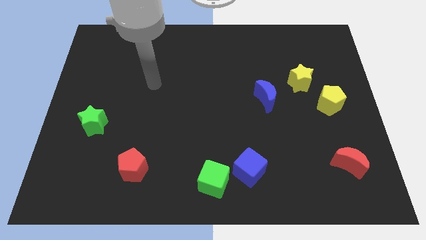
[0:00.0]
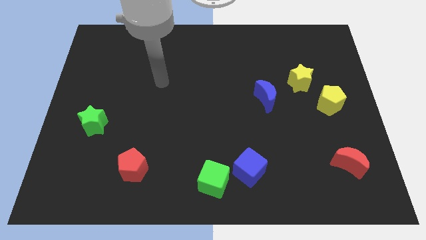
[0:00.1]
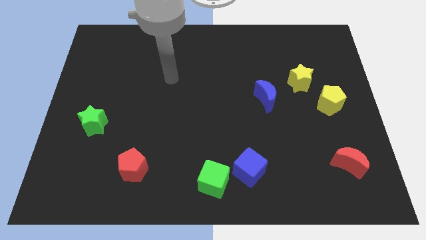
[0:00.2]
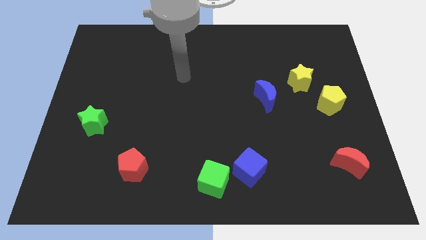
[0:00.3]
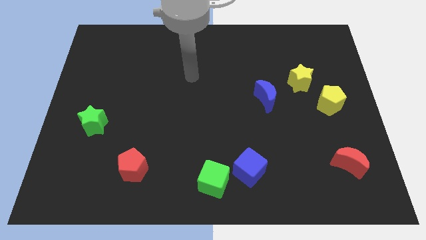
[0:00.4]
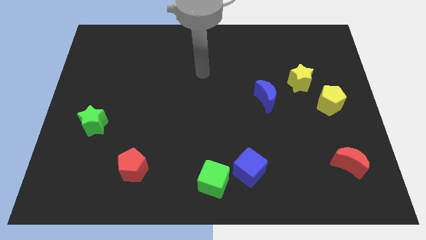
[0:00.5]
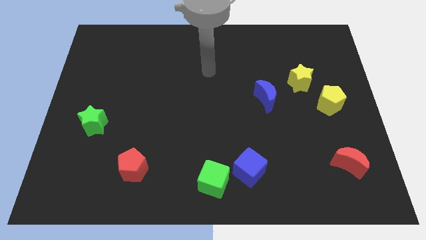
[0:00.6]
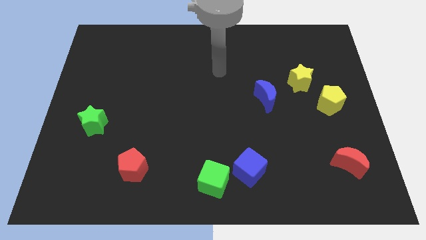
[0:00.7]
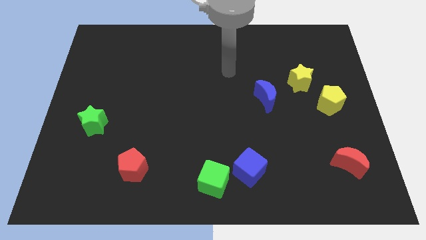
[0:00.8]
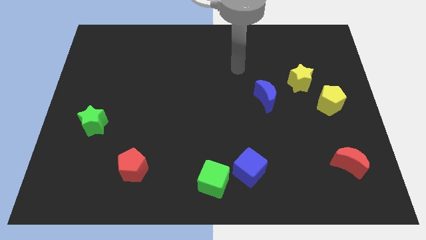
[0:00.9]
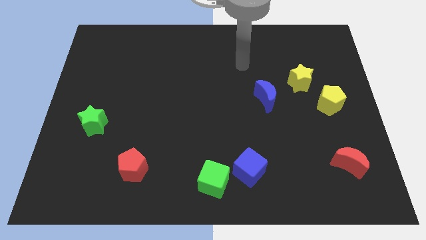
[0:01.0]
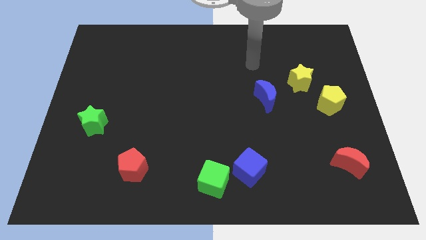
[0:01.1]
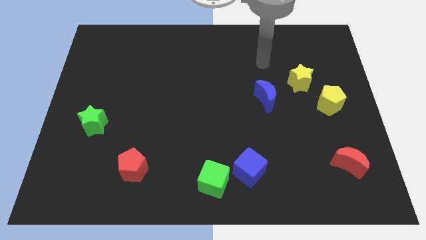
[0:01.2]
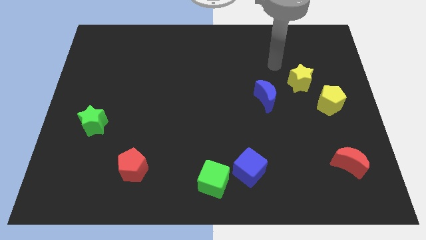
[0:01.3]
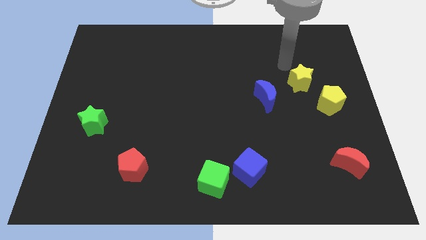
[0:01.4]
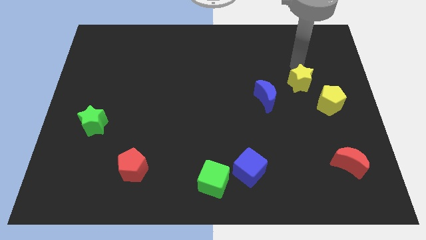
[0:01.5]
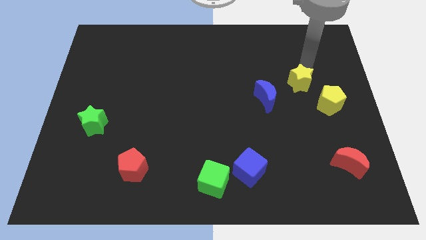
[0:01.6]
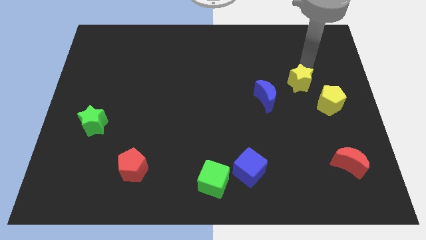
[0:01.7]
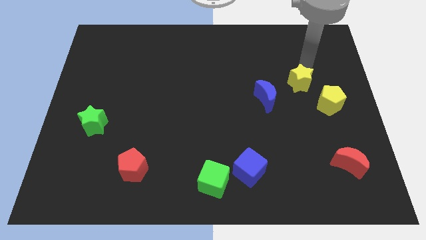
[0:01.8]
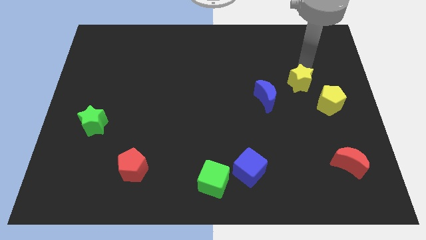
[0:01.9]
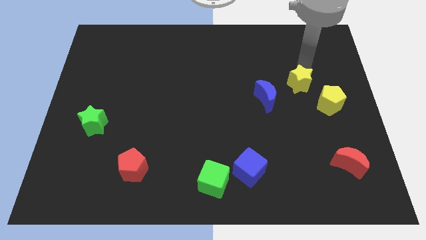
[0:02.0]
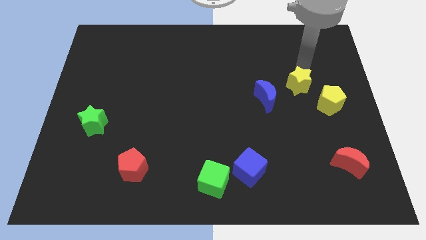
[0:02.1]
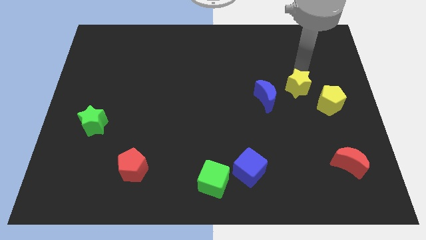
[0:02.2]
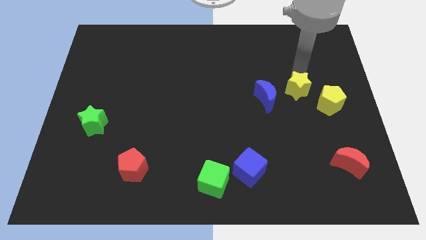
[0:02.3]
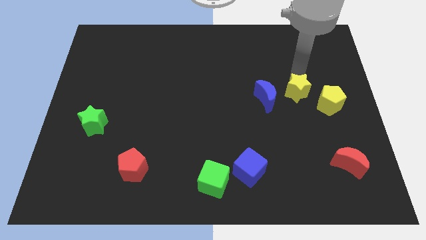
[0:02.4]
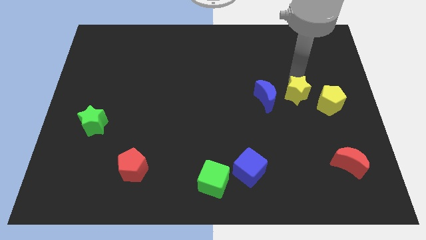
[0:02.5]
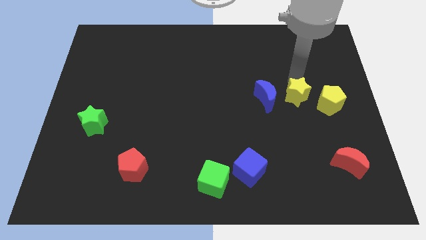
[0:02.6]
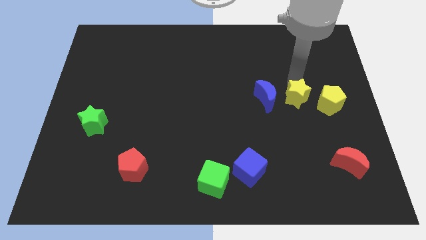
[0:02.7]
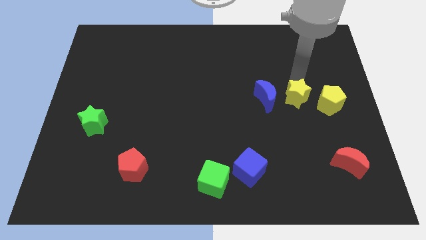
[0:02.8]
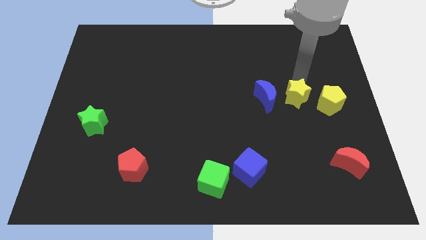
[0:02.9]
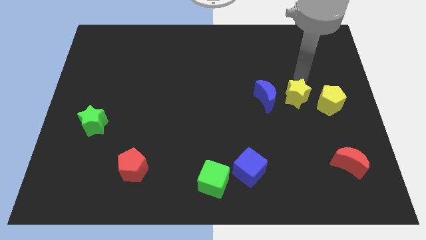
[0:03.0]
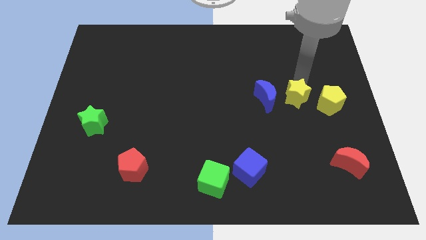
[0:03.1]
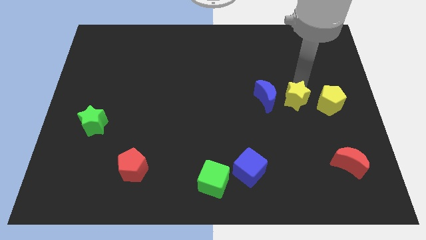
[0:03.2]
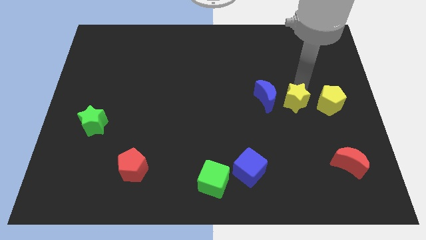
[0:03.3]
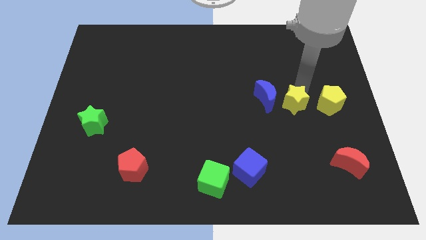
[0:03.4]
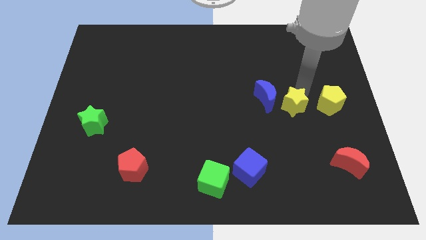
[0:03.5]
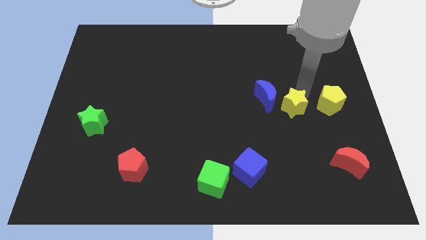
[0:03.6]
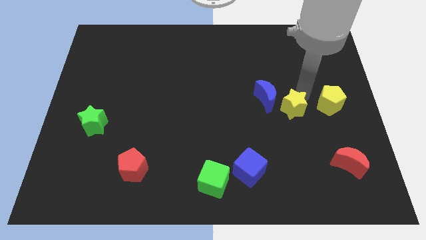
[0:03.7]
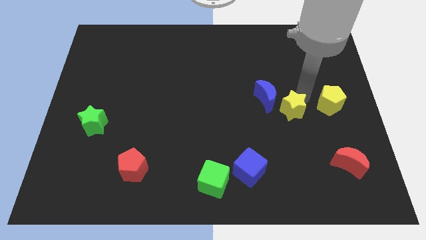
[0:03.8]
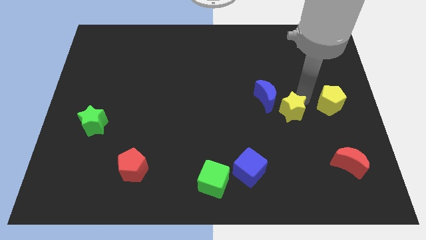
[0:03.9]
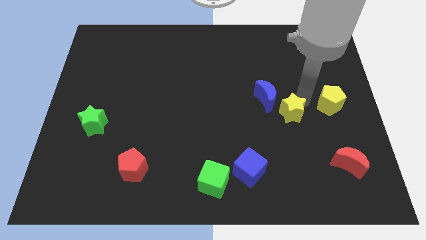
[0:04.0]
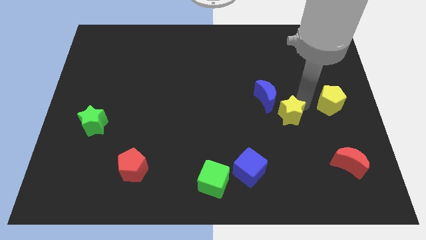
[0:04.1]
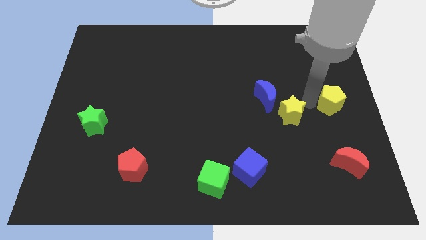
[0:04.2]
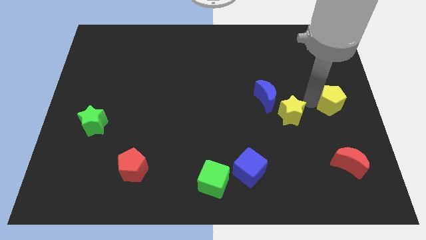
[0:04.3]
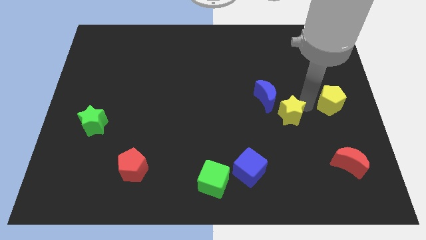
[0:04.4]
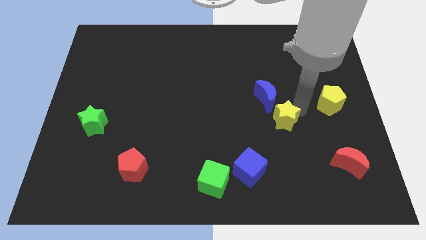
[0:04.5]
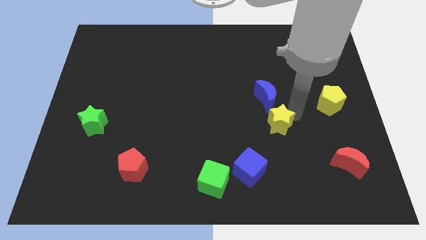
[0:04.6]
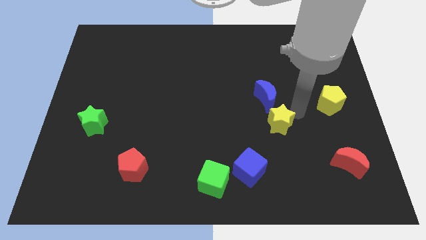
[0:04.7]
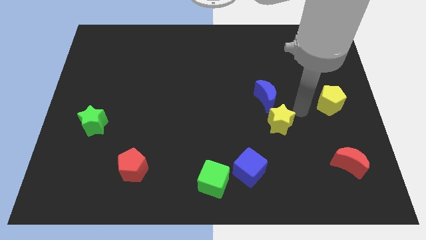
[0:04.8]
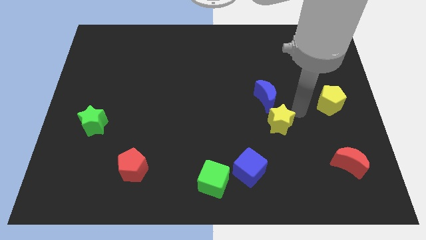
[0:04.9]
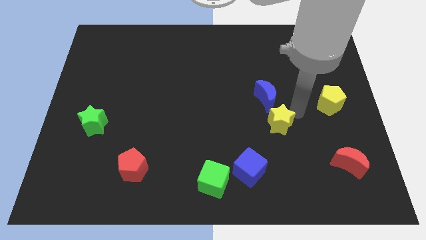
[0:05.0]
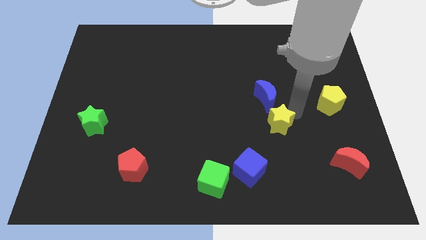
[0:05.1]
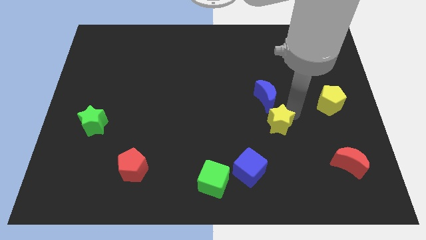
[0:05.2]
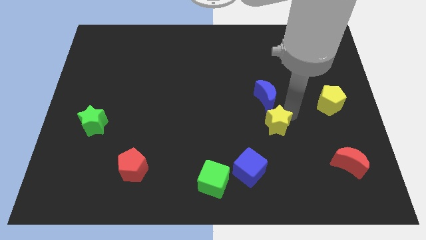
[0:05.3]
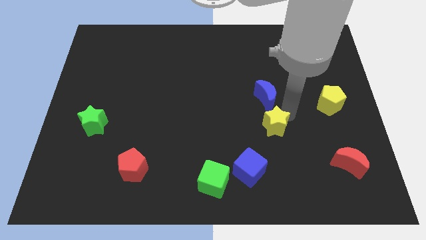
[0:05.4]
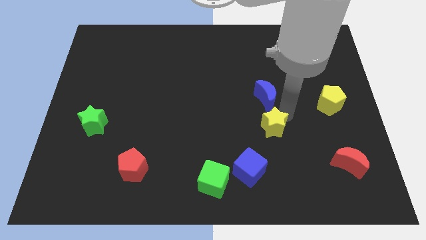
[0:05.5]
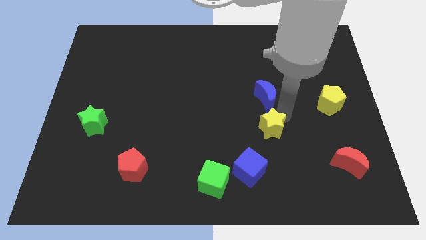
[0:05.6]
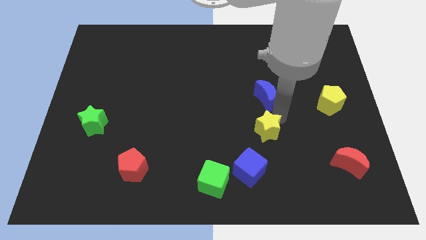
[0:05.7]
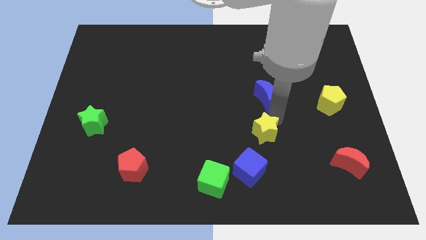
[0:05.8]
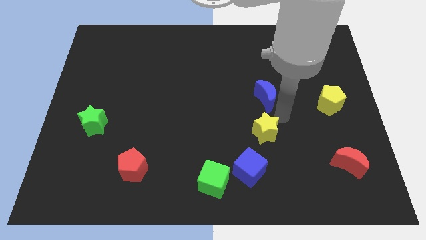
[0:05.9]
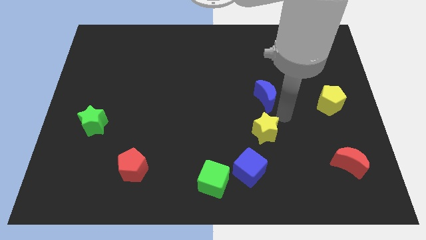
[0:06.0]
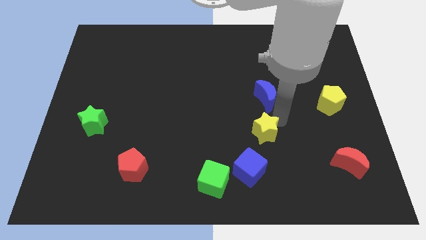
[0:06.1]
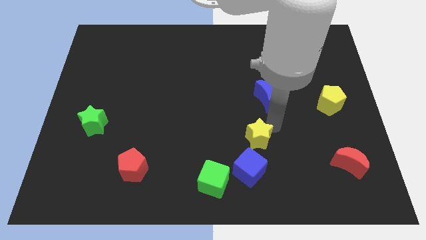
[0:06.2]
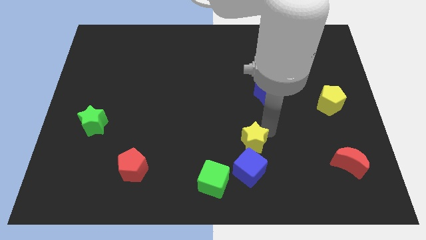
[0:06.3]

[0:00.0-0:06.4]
move the yellow star diagonally up and to the right of the green cube
